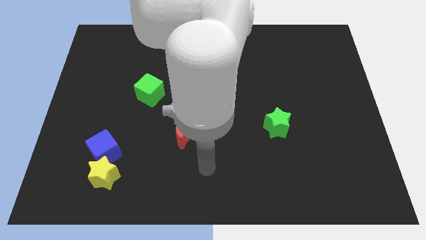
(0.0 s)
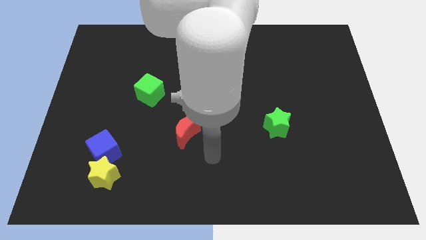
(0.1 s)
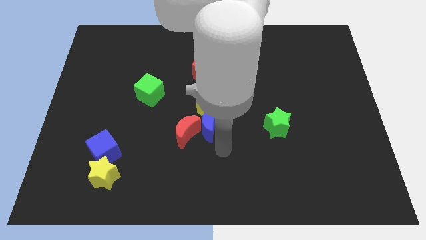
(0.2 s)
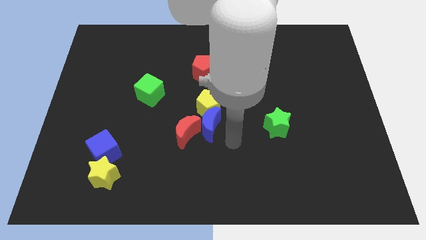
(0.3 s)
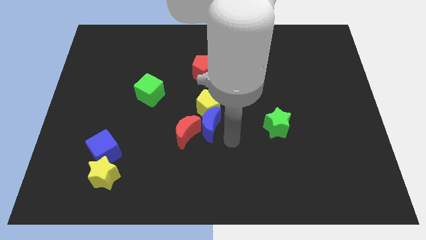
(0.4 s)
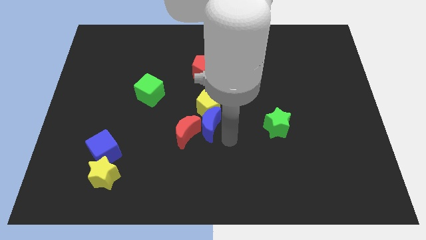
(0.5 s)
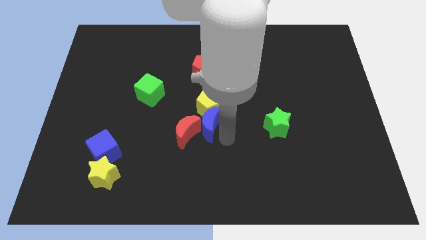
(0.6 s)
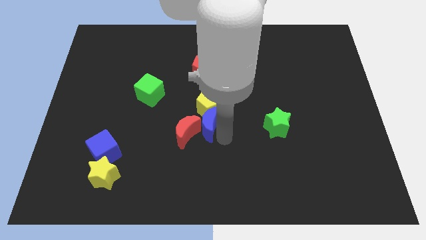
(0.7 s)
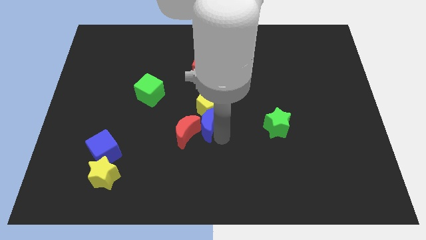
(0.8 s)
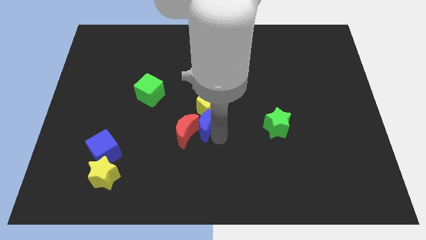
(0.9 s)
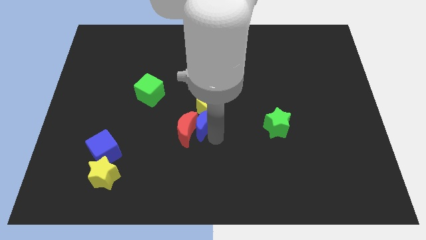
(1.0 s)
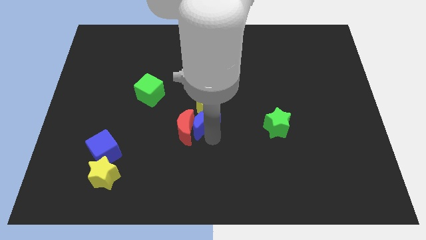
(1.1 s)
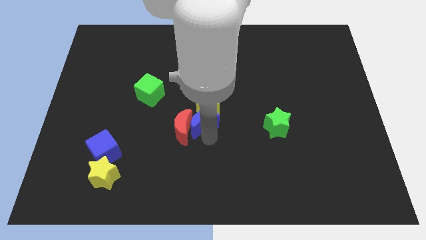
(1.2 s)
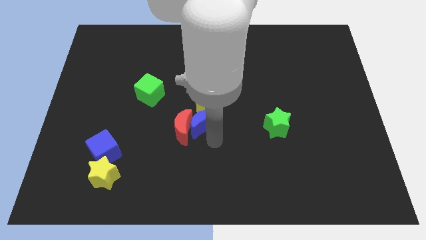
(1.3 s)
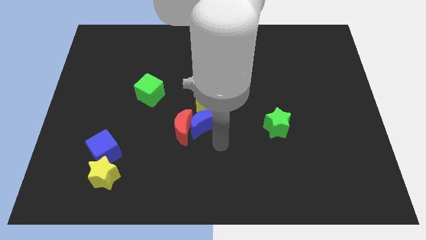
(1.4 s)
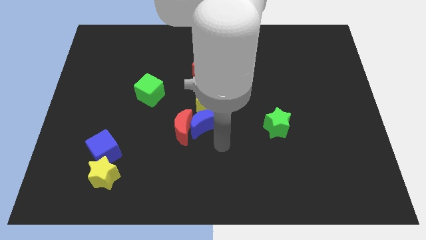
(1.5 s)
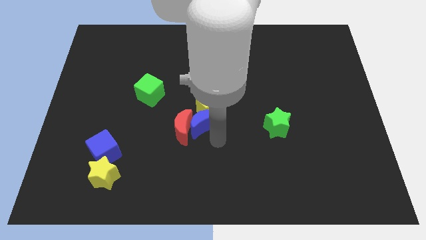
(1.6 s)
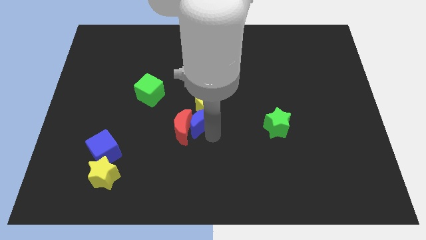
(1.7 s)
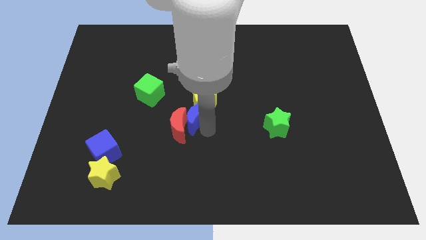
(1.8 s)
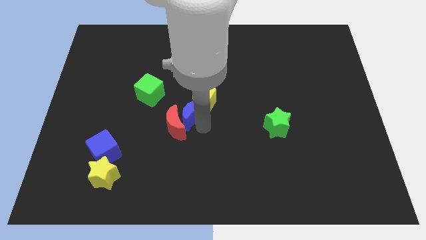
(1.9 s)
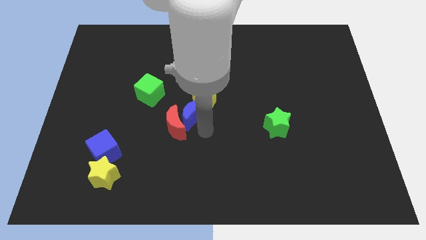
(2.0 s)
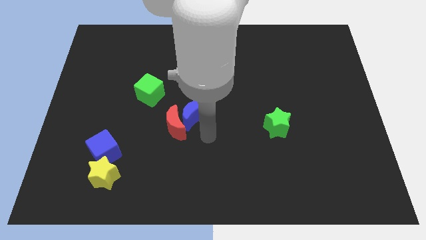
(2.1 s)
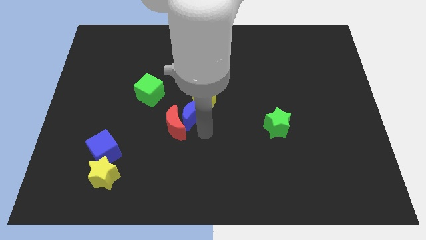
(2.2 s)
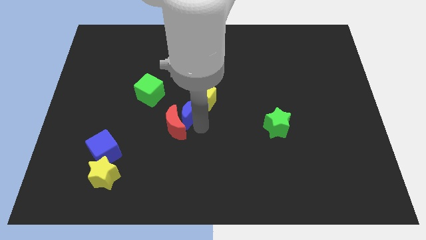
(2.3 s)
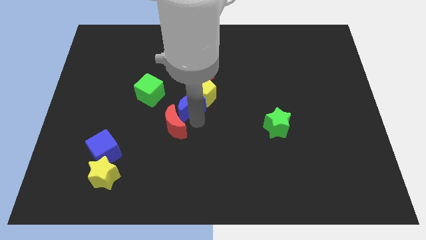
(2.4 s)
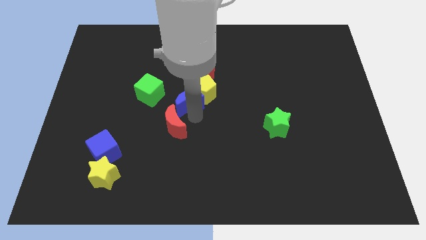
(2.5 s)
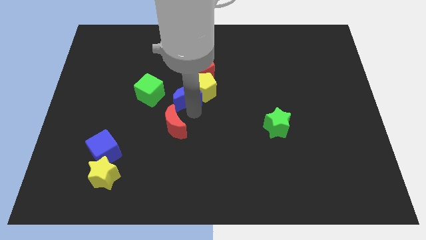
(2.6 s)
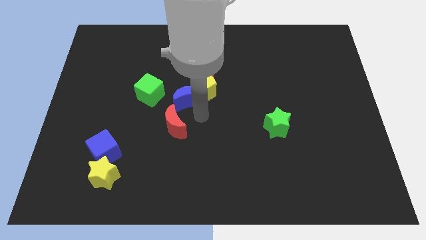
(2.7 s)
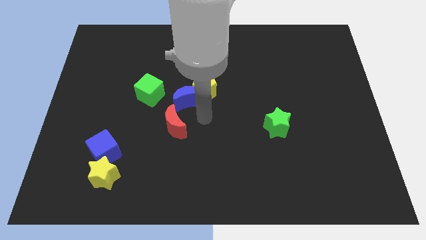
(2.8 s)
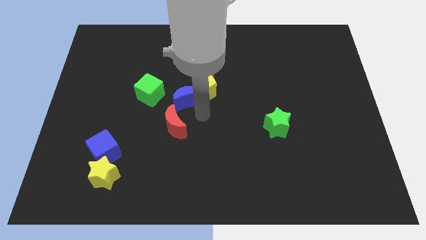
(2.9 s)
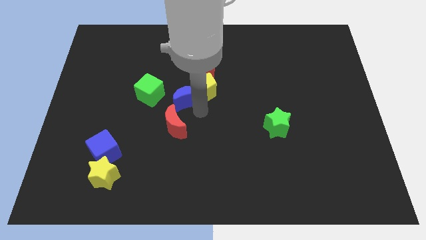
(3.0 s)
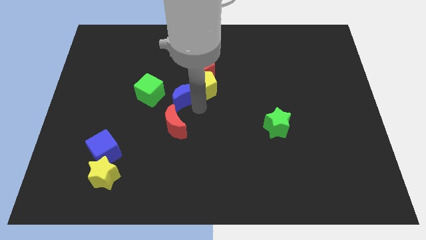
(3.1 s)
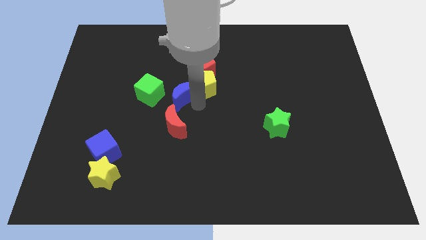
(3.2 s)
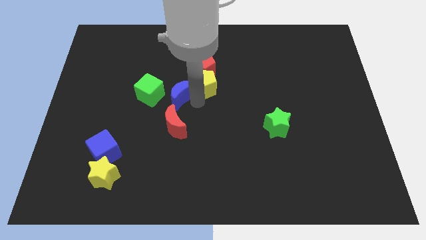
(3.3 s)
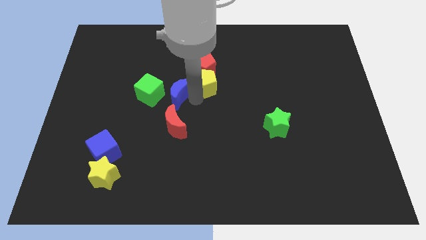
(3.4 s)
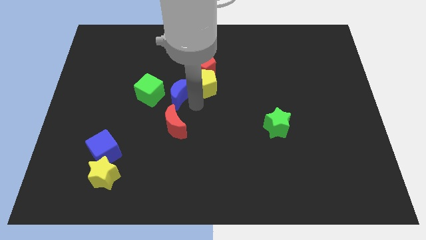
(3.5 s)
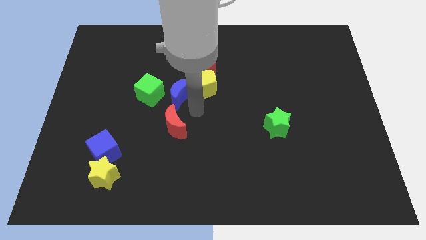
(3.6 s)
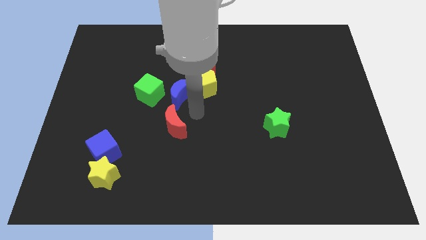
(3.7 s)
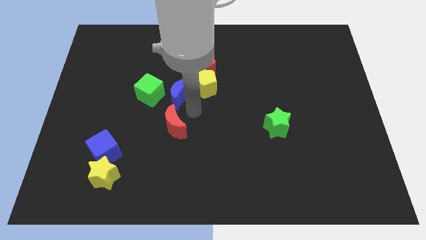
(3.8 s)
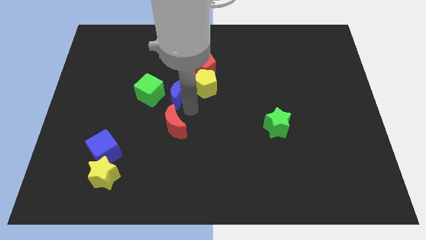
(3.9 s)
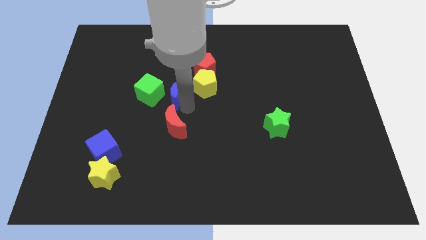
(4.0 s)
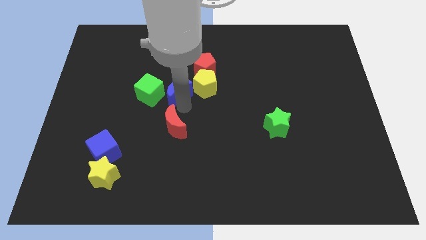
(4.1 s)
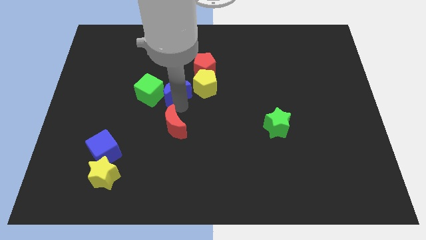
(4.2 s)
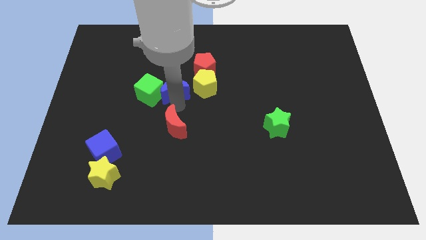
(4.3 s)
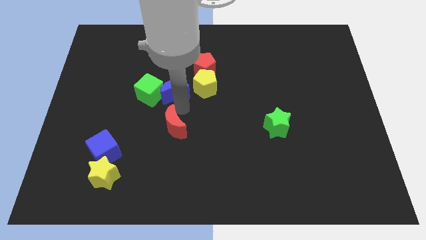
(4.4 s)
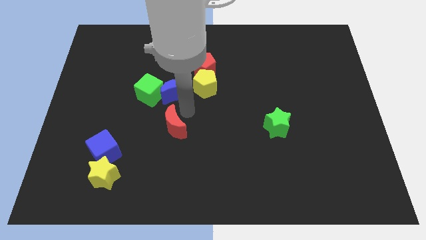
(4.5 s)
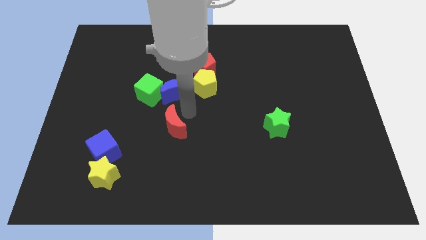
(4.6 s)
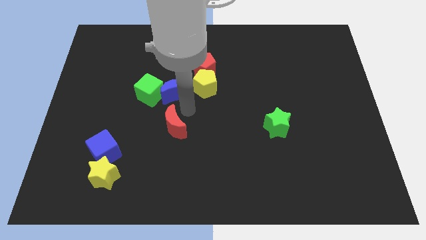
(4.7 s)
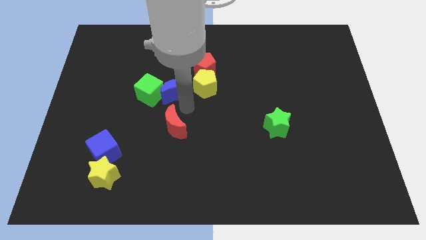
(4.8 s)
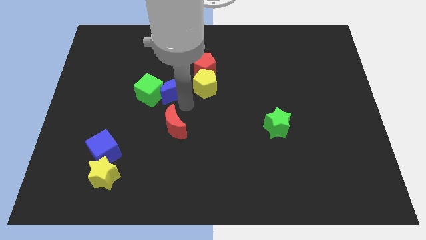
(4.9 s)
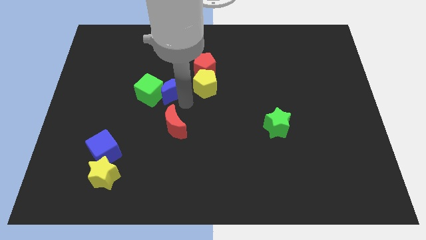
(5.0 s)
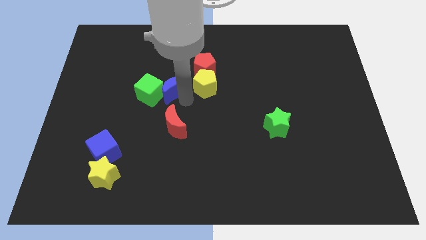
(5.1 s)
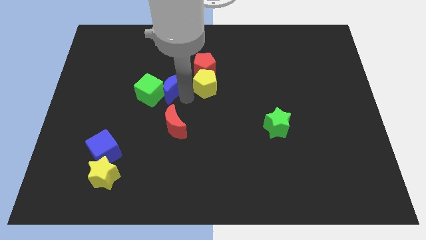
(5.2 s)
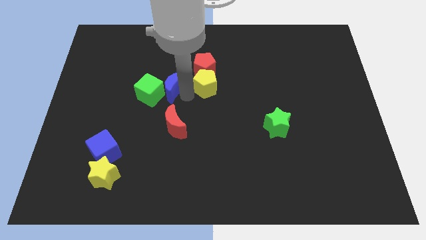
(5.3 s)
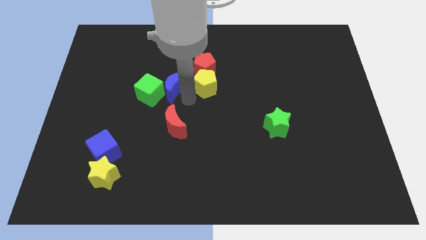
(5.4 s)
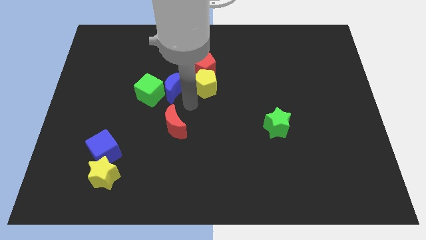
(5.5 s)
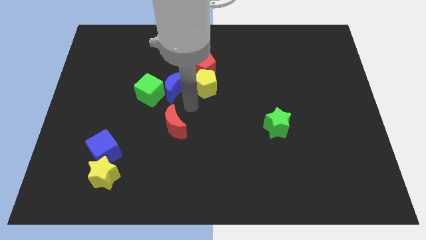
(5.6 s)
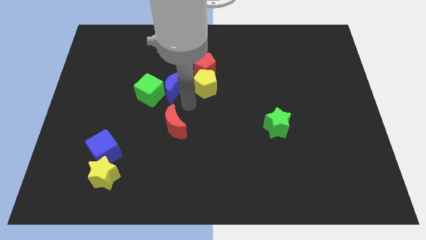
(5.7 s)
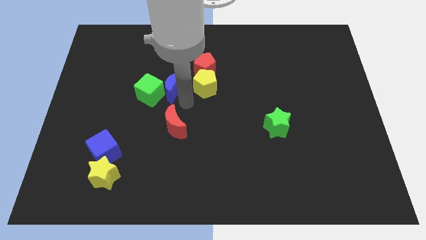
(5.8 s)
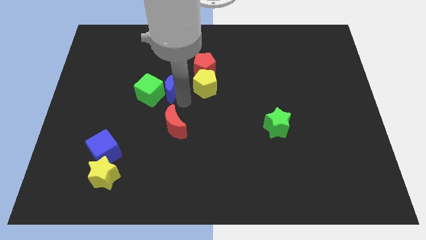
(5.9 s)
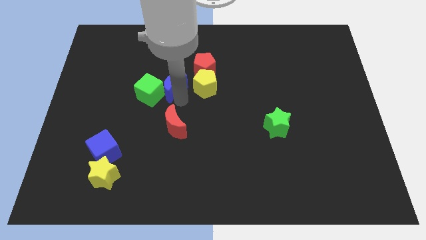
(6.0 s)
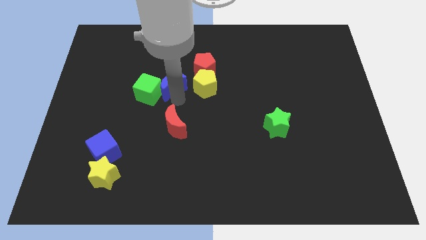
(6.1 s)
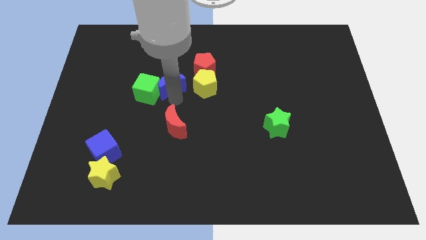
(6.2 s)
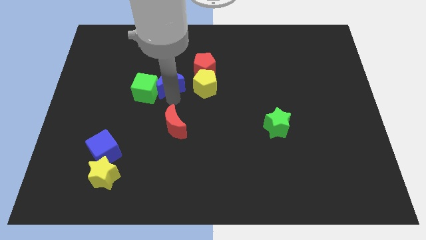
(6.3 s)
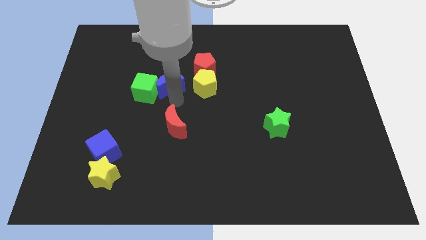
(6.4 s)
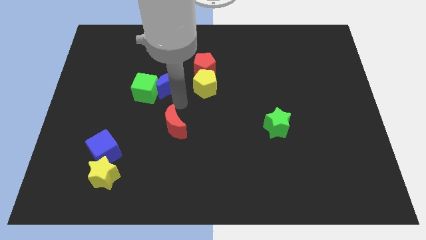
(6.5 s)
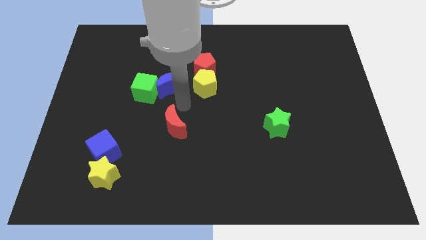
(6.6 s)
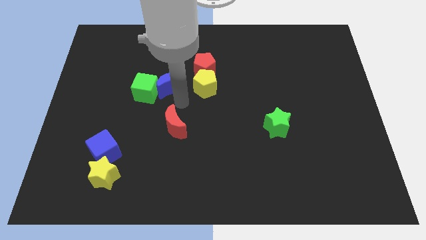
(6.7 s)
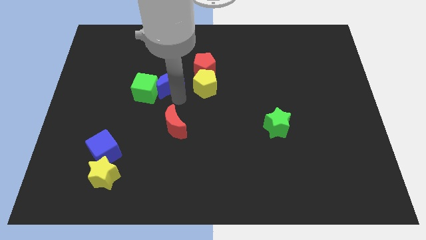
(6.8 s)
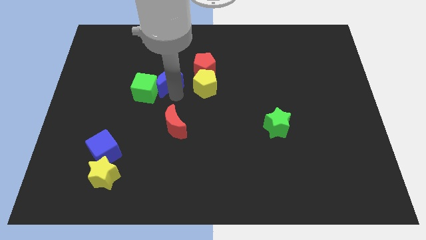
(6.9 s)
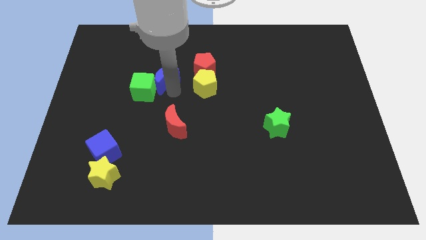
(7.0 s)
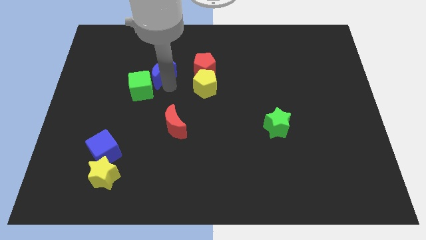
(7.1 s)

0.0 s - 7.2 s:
slide the blue moon to the top of the green cube
